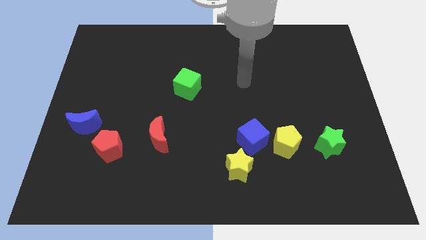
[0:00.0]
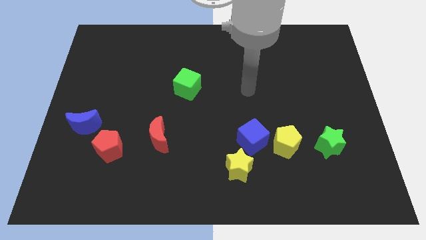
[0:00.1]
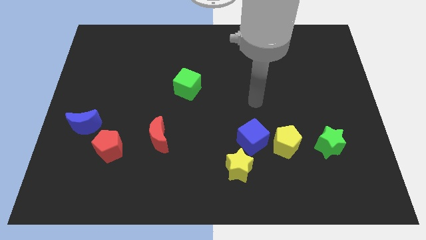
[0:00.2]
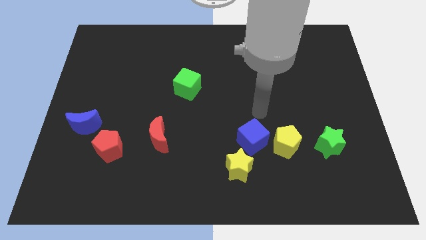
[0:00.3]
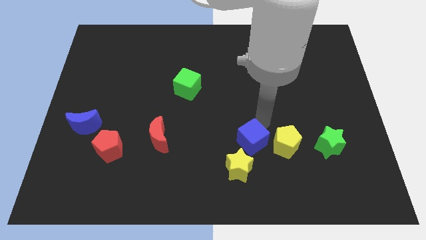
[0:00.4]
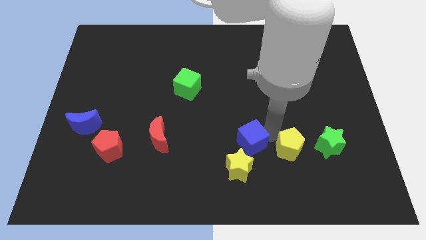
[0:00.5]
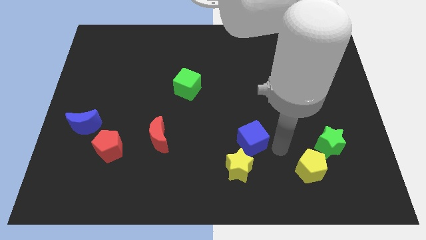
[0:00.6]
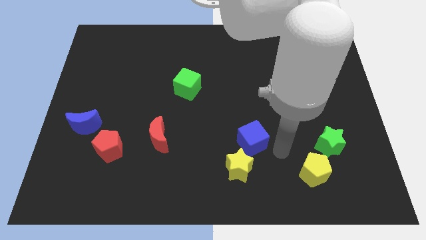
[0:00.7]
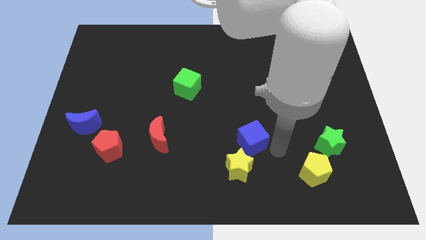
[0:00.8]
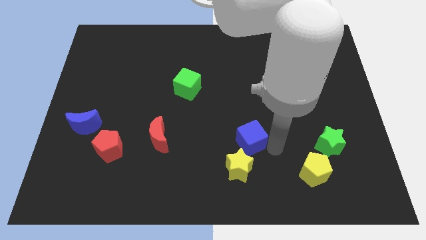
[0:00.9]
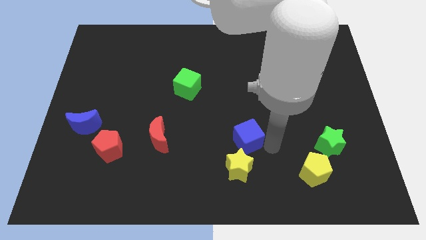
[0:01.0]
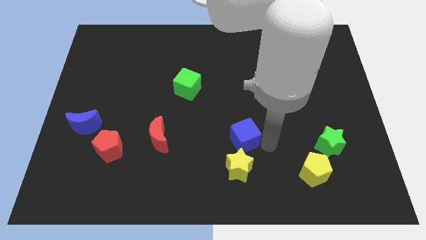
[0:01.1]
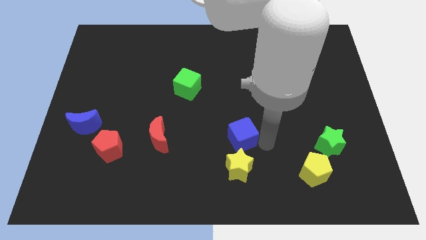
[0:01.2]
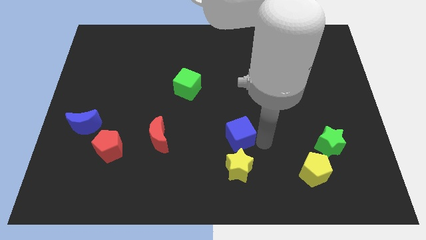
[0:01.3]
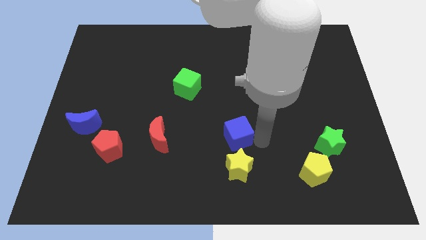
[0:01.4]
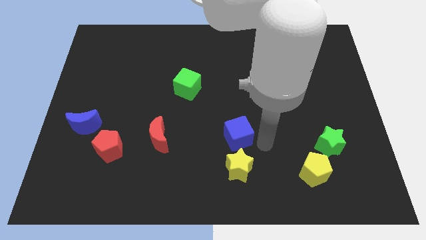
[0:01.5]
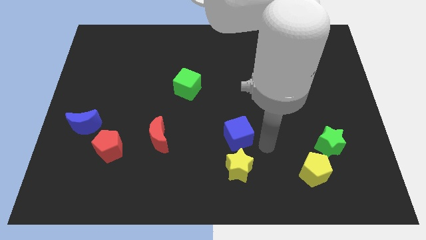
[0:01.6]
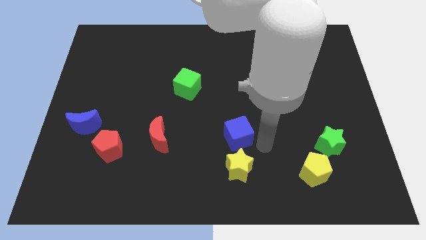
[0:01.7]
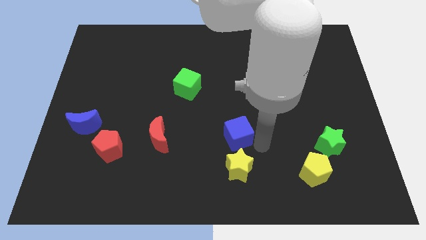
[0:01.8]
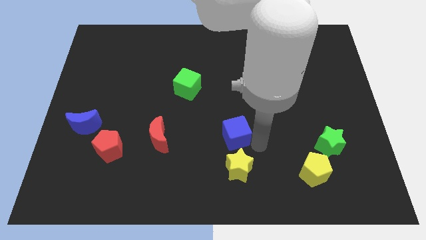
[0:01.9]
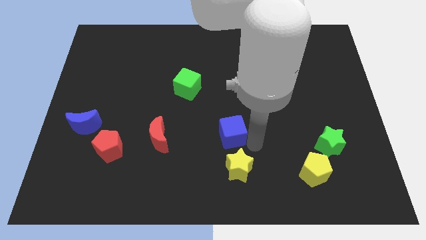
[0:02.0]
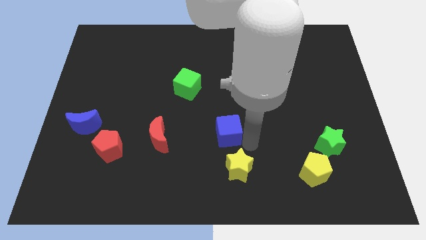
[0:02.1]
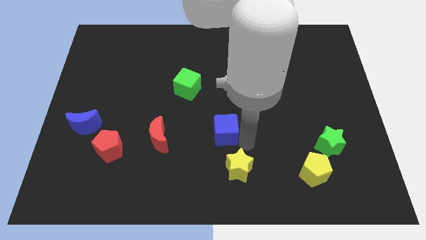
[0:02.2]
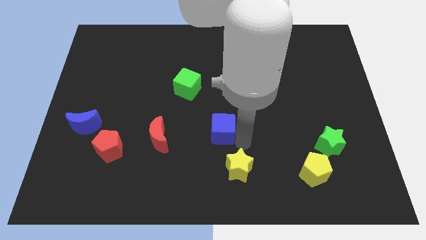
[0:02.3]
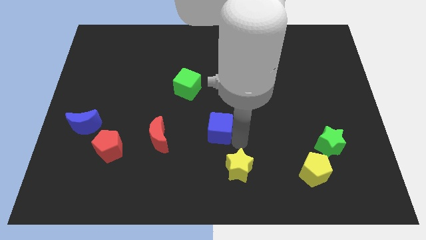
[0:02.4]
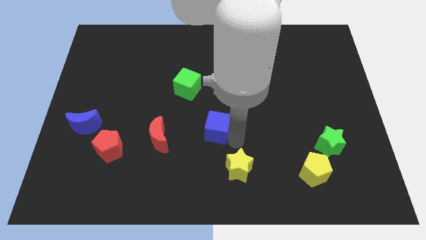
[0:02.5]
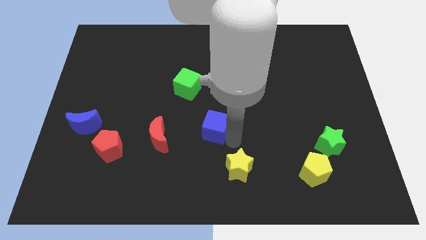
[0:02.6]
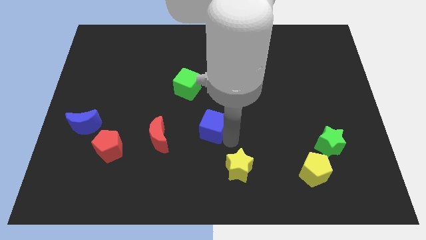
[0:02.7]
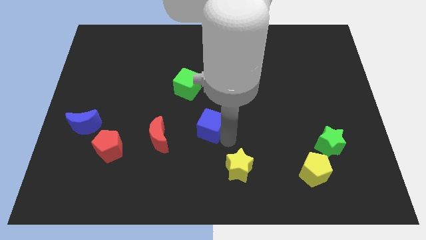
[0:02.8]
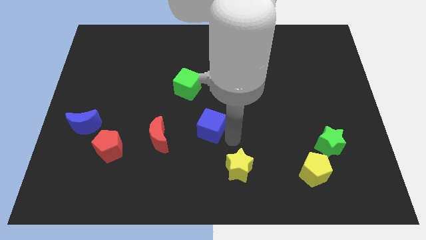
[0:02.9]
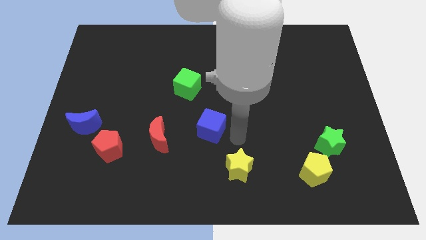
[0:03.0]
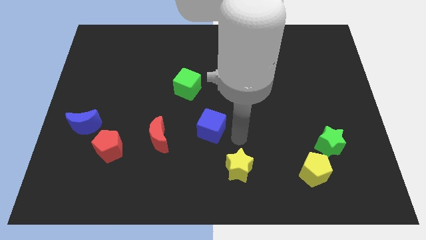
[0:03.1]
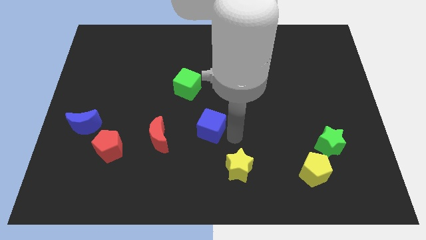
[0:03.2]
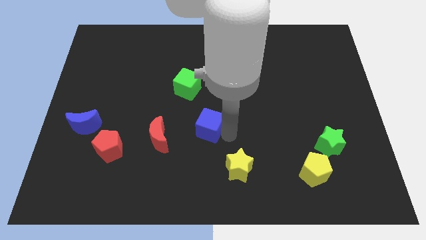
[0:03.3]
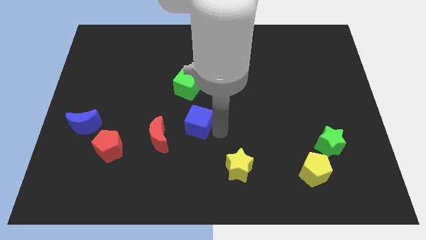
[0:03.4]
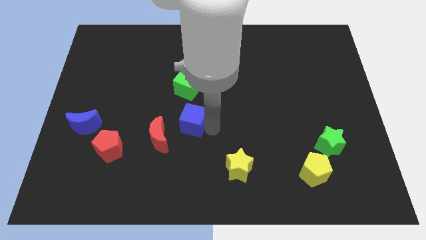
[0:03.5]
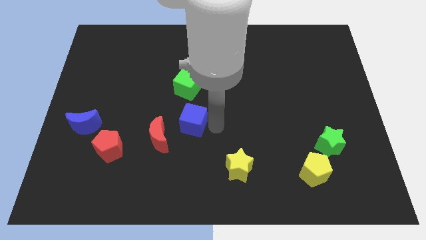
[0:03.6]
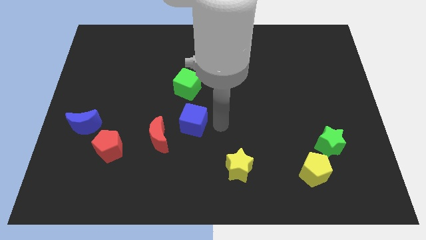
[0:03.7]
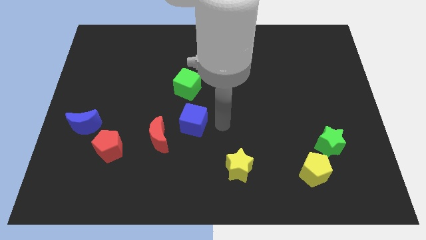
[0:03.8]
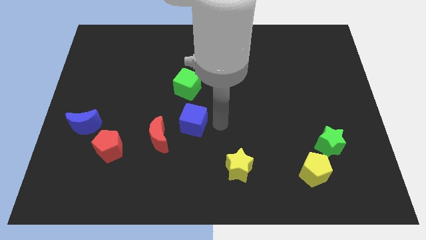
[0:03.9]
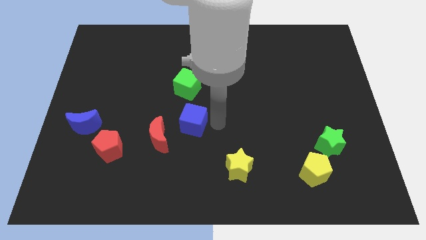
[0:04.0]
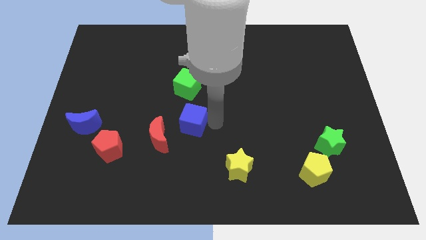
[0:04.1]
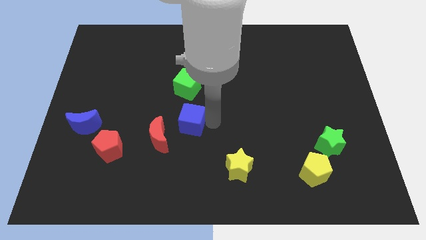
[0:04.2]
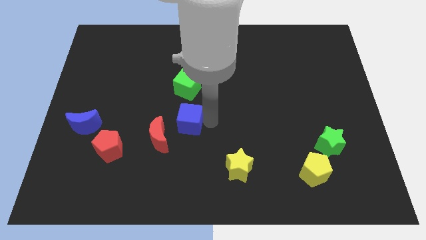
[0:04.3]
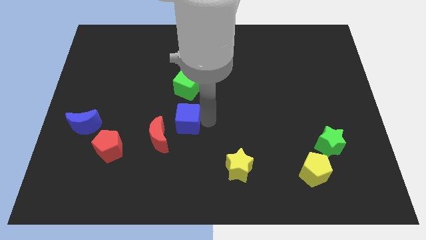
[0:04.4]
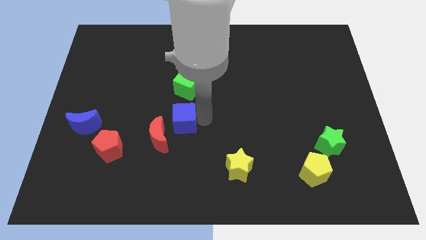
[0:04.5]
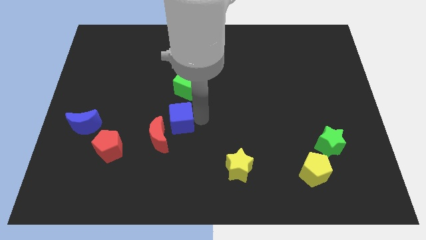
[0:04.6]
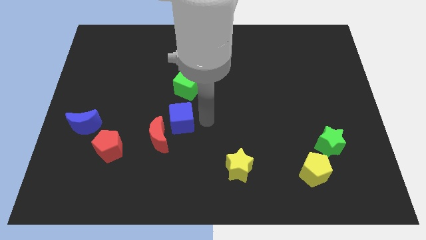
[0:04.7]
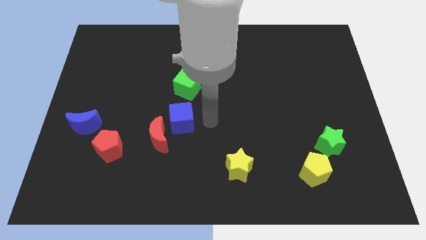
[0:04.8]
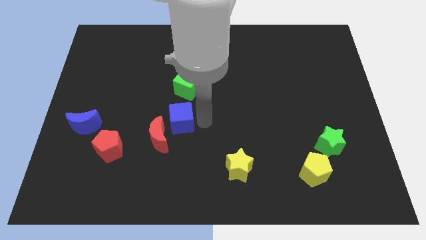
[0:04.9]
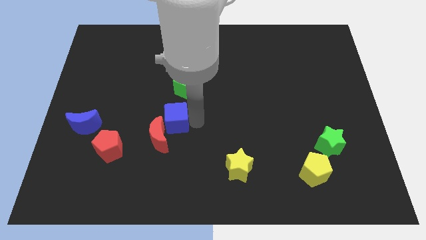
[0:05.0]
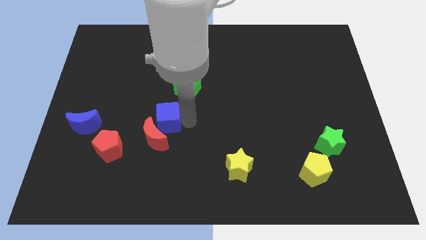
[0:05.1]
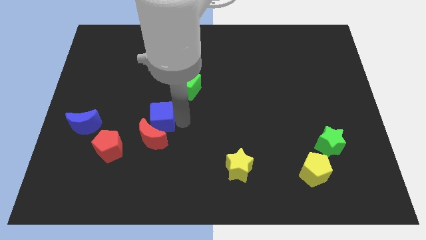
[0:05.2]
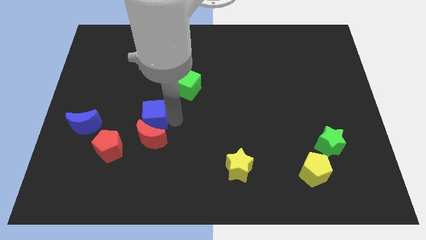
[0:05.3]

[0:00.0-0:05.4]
push the blue cube to the top right of the red pentagon

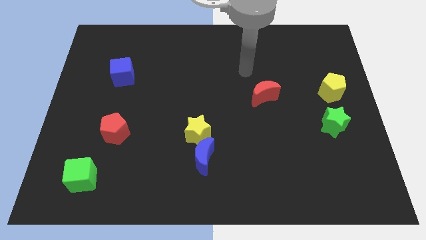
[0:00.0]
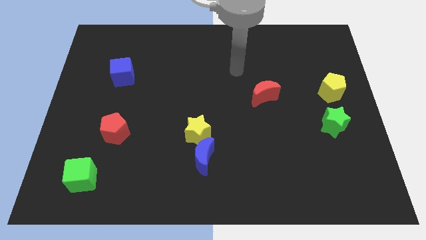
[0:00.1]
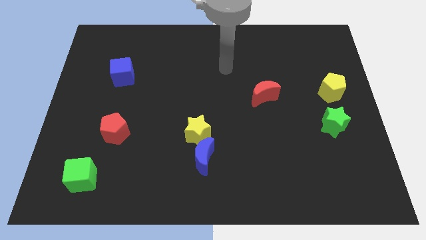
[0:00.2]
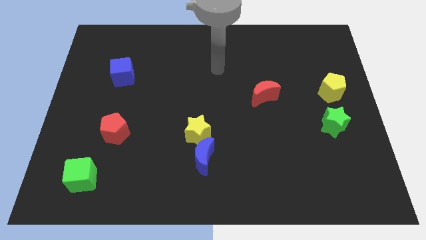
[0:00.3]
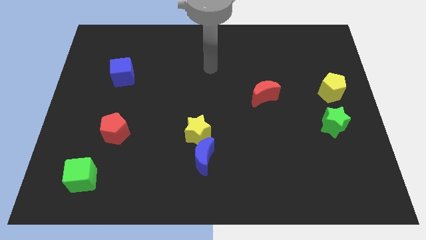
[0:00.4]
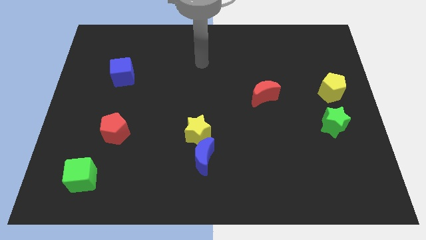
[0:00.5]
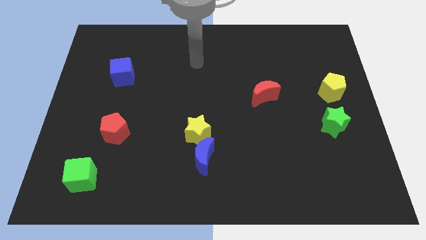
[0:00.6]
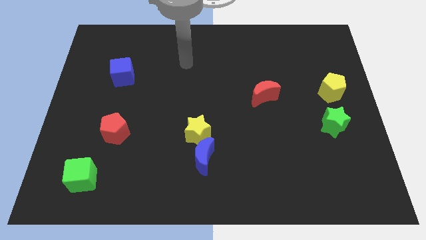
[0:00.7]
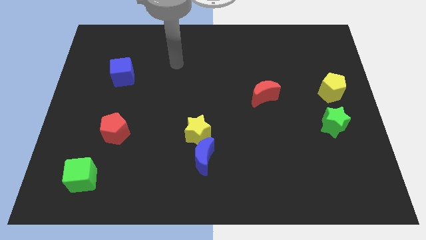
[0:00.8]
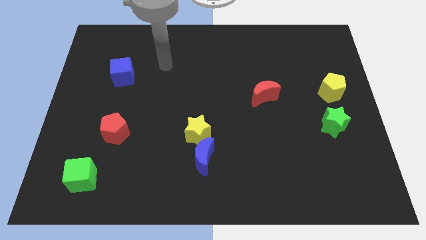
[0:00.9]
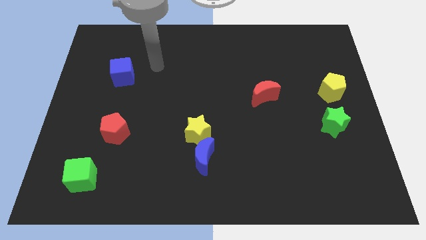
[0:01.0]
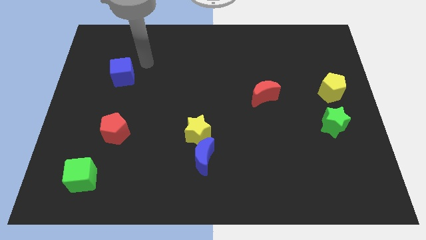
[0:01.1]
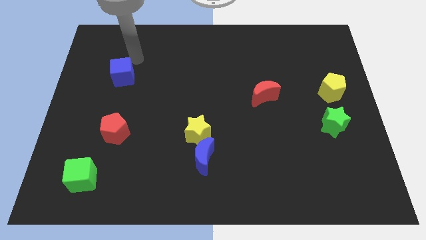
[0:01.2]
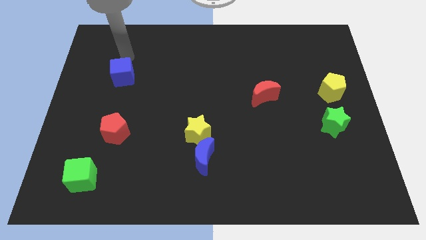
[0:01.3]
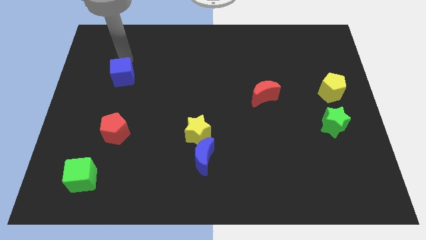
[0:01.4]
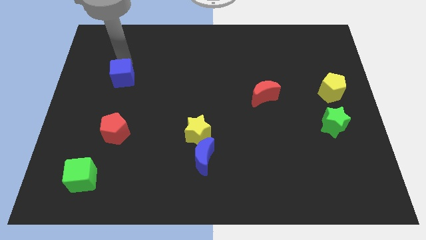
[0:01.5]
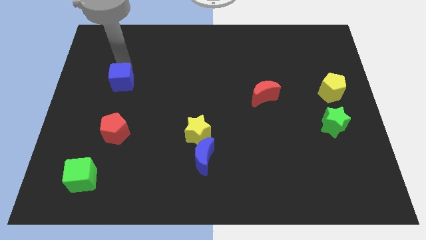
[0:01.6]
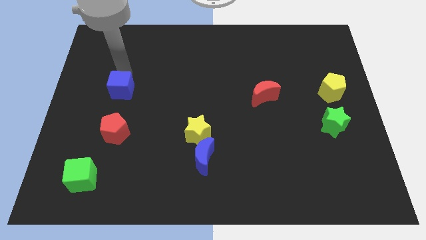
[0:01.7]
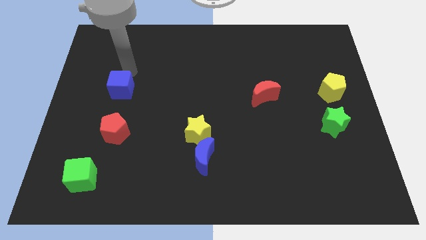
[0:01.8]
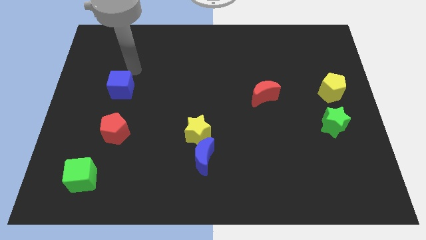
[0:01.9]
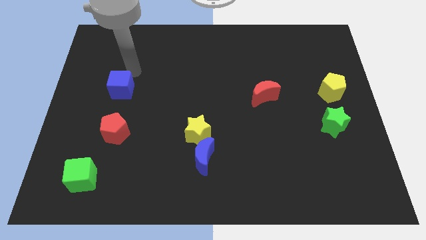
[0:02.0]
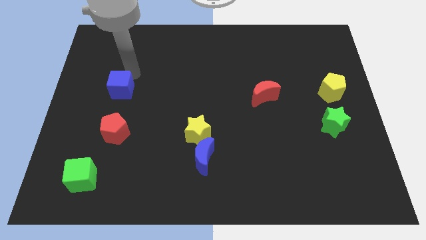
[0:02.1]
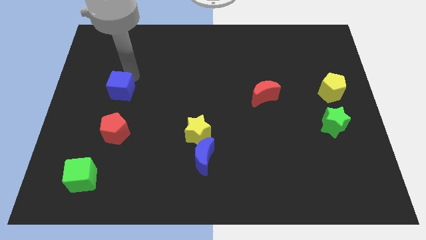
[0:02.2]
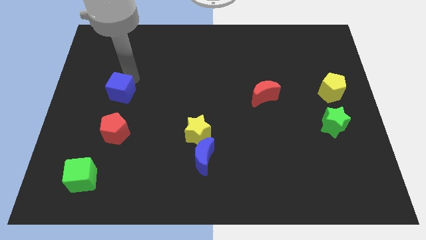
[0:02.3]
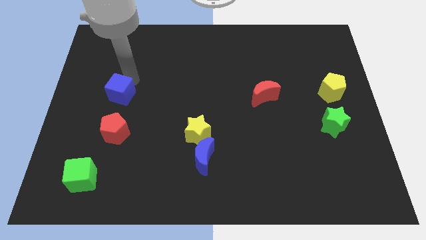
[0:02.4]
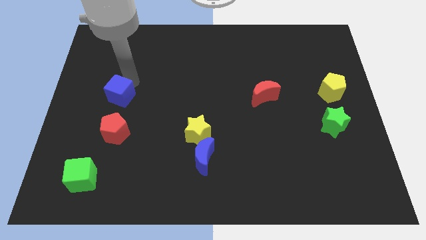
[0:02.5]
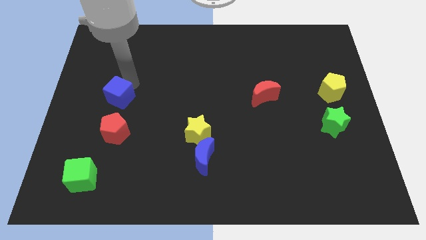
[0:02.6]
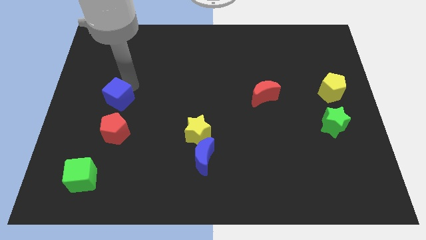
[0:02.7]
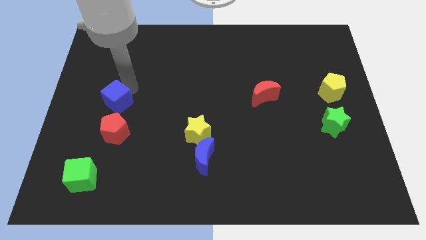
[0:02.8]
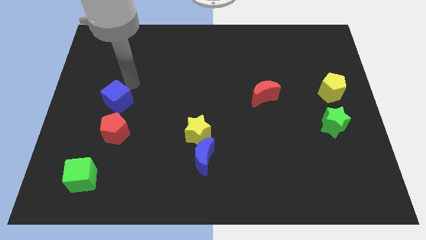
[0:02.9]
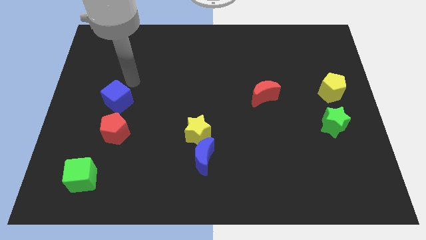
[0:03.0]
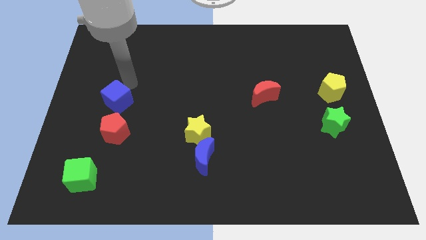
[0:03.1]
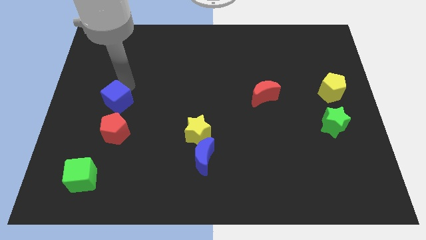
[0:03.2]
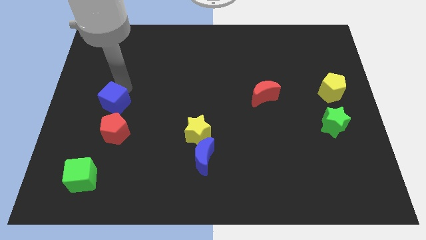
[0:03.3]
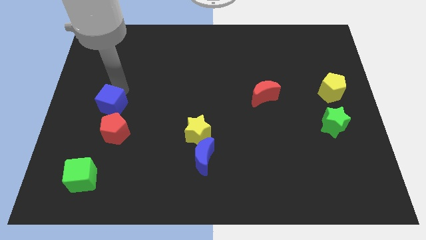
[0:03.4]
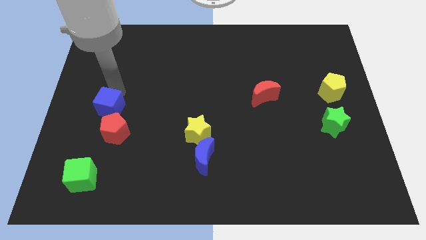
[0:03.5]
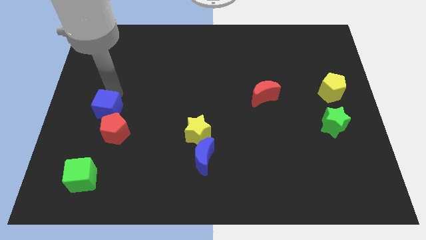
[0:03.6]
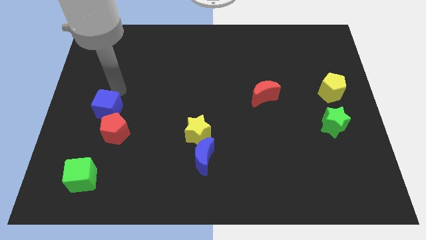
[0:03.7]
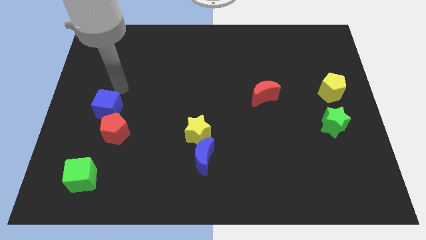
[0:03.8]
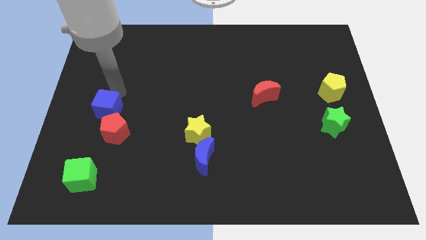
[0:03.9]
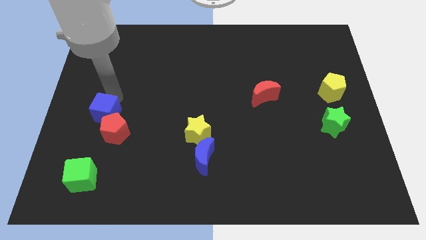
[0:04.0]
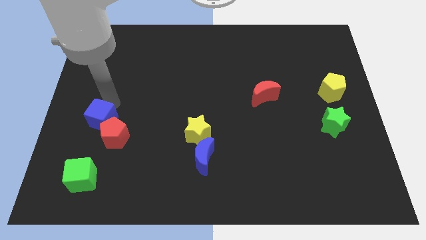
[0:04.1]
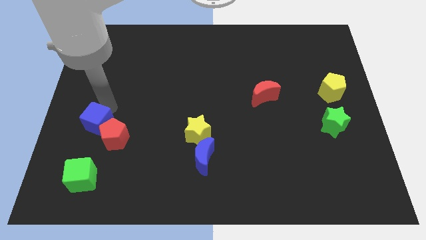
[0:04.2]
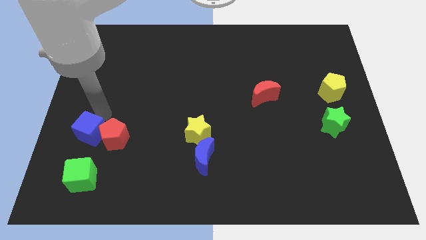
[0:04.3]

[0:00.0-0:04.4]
slide the blue cube diagonally down and to the left of the red pentagon
